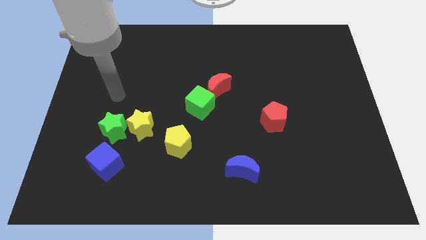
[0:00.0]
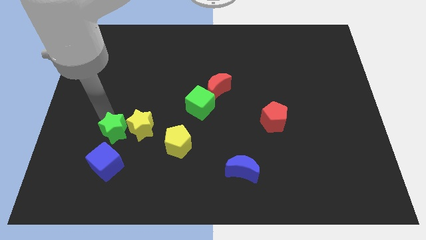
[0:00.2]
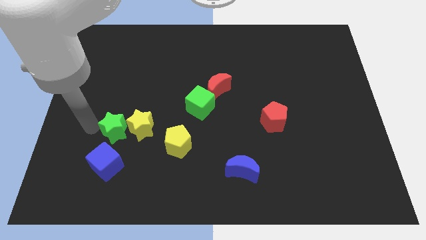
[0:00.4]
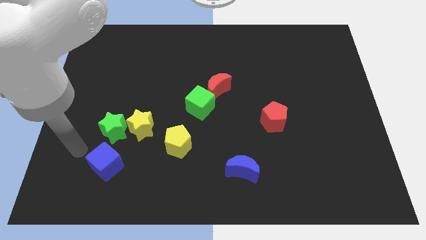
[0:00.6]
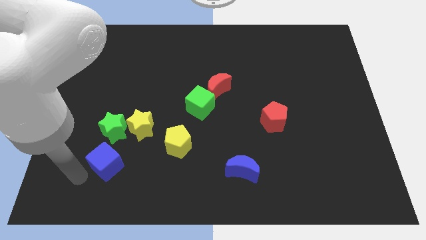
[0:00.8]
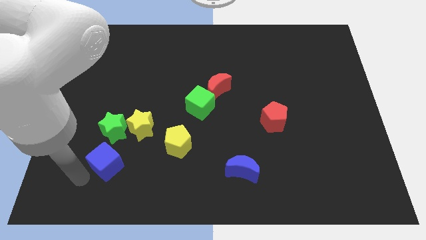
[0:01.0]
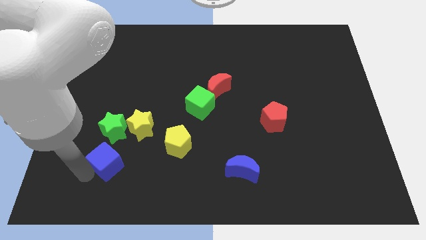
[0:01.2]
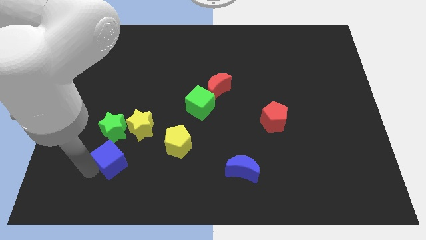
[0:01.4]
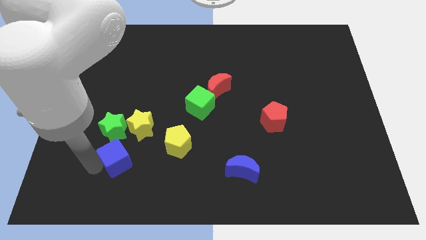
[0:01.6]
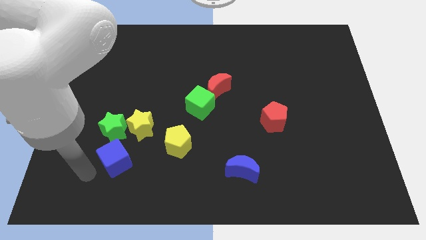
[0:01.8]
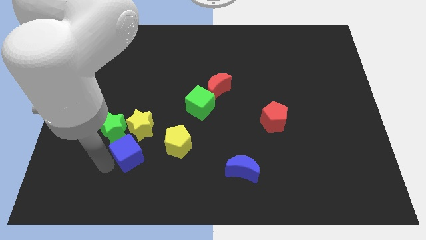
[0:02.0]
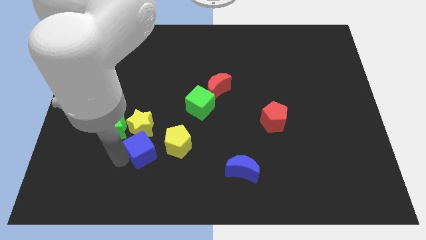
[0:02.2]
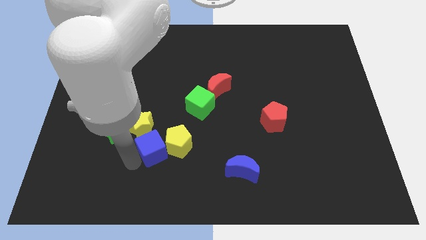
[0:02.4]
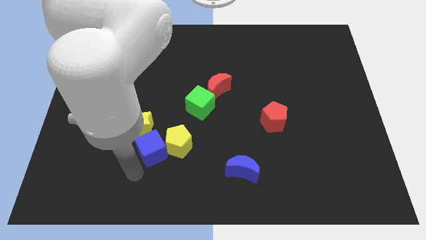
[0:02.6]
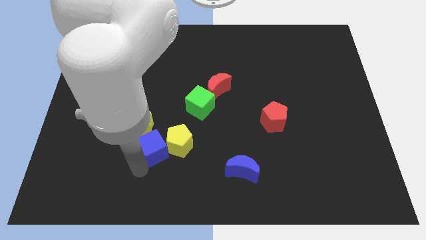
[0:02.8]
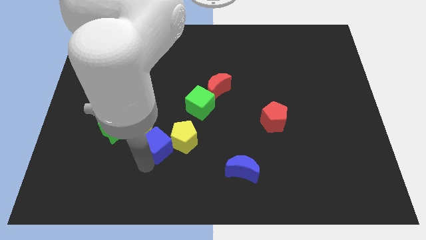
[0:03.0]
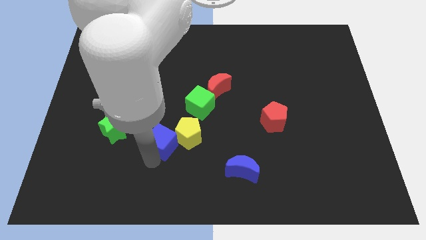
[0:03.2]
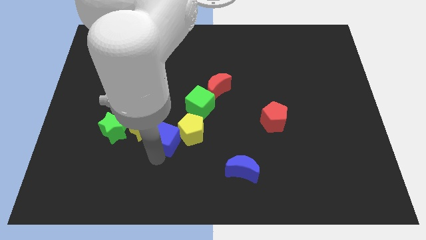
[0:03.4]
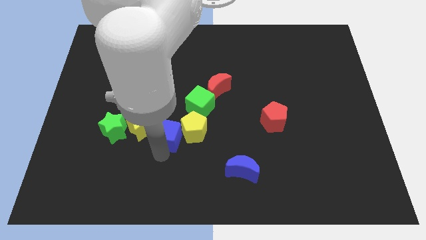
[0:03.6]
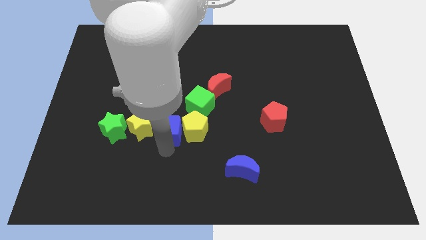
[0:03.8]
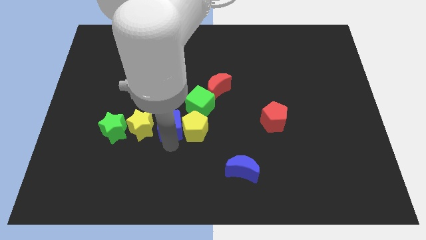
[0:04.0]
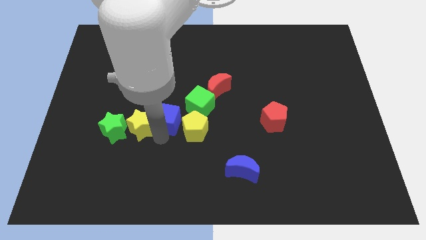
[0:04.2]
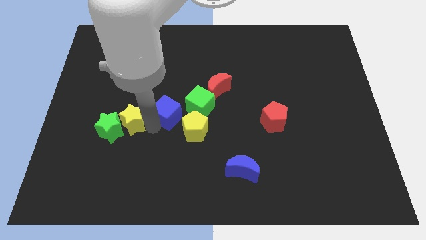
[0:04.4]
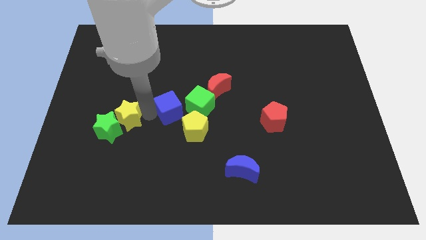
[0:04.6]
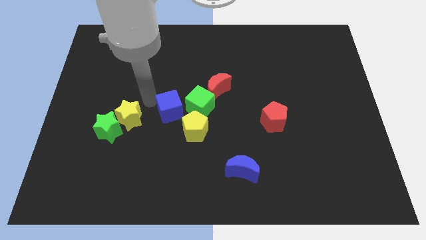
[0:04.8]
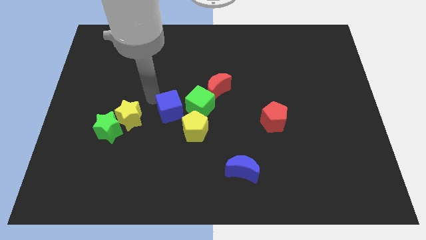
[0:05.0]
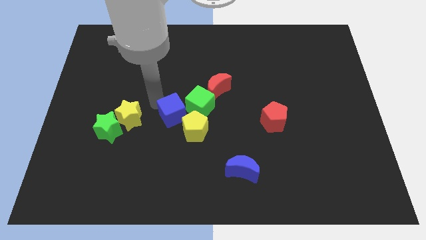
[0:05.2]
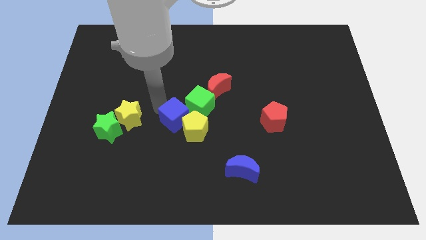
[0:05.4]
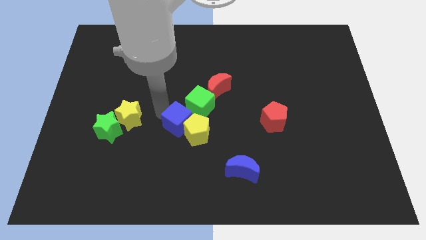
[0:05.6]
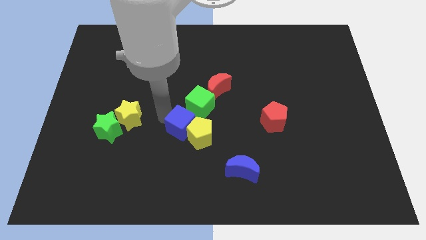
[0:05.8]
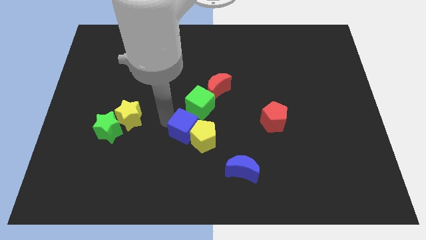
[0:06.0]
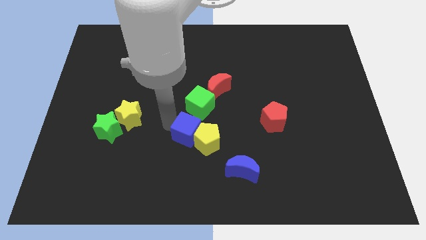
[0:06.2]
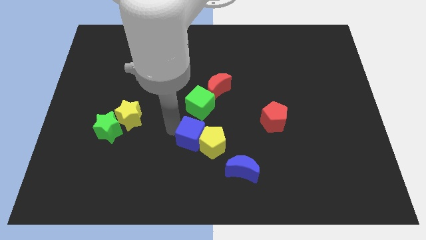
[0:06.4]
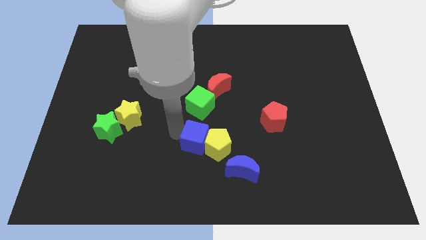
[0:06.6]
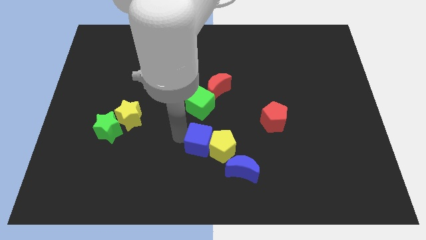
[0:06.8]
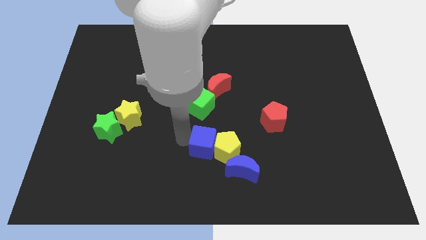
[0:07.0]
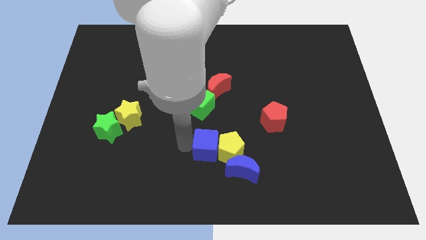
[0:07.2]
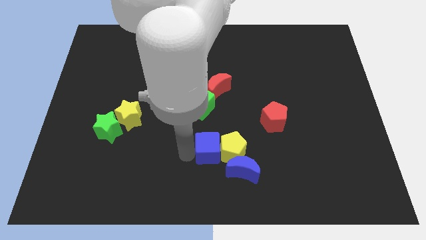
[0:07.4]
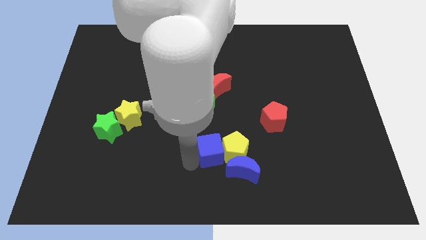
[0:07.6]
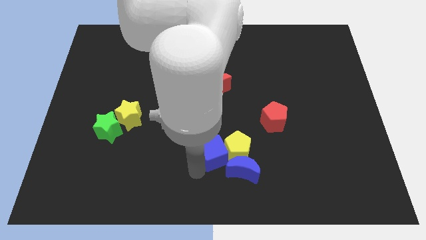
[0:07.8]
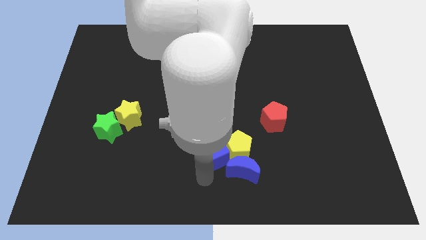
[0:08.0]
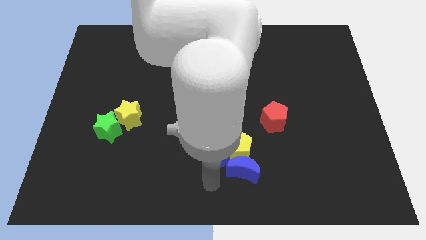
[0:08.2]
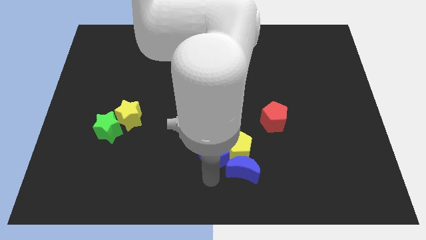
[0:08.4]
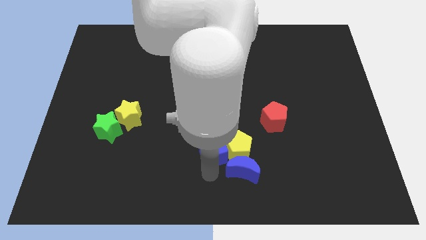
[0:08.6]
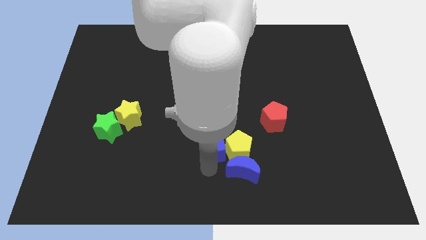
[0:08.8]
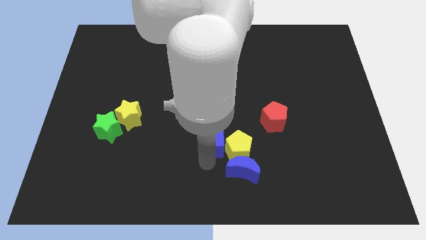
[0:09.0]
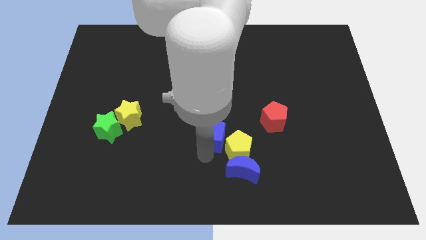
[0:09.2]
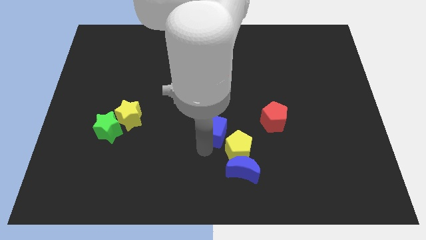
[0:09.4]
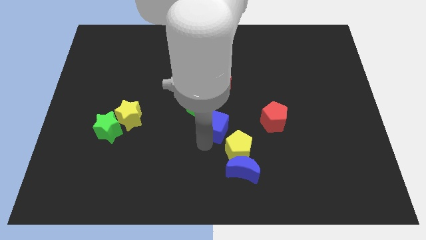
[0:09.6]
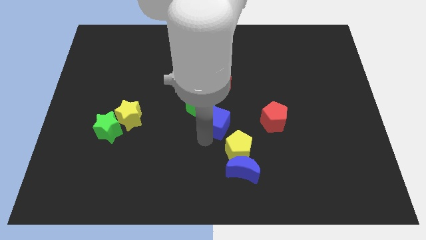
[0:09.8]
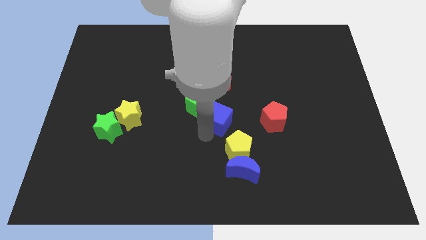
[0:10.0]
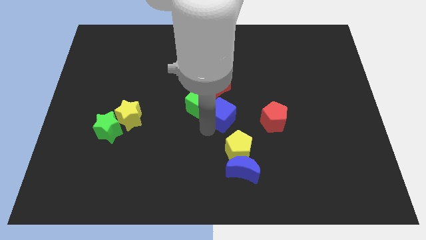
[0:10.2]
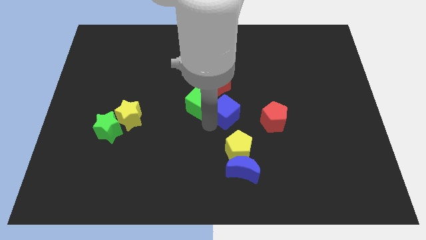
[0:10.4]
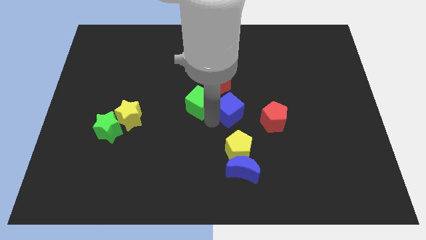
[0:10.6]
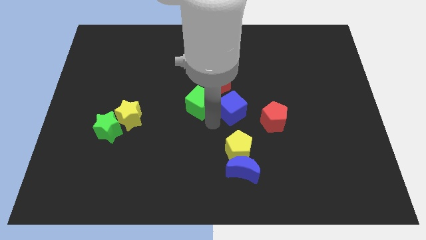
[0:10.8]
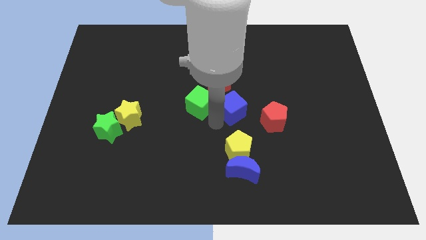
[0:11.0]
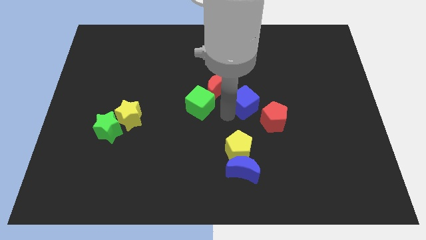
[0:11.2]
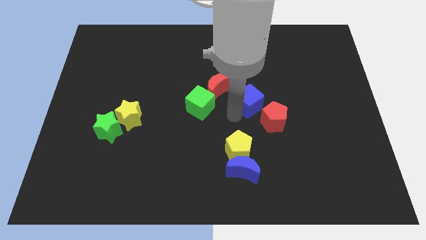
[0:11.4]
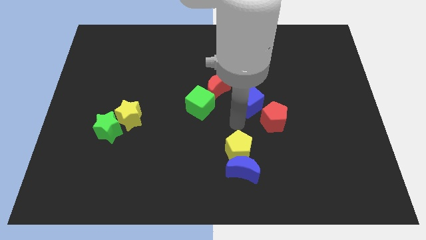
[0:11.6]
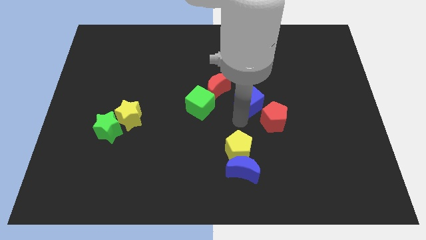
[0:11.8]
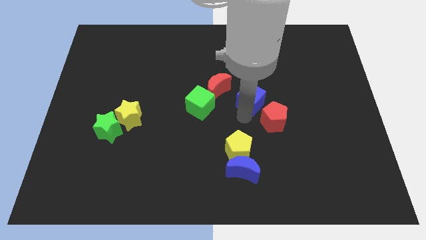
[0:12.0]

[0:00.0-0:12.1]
slide the blue cube to the top of the red pentagon
